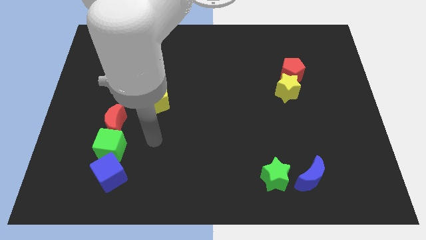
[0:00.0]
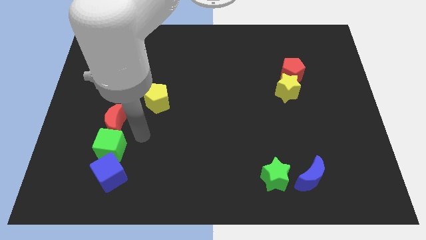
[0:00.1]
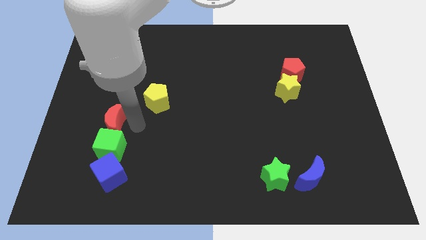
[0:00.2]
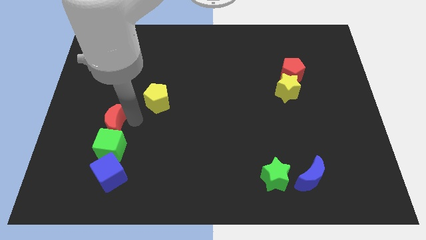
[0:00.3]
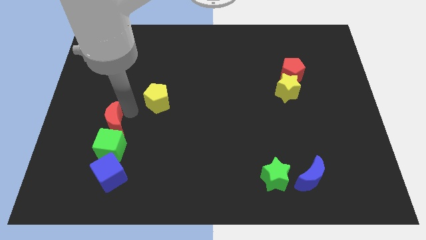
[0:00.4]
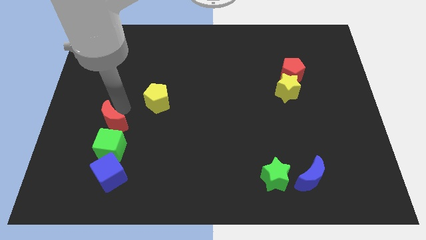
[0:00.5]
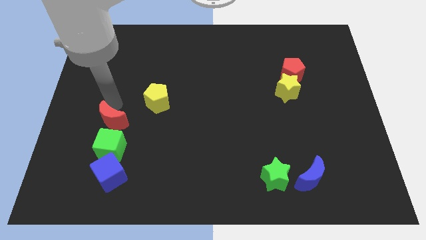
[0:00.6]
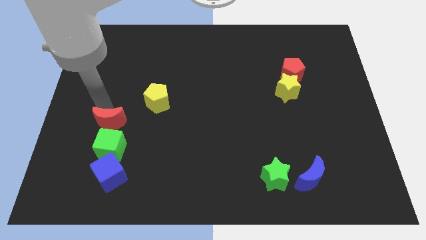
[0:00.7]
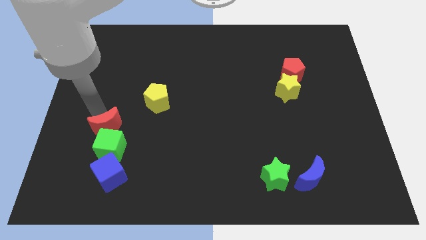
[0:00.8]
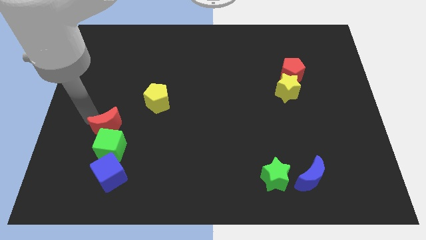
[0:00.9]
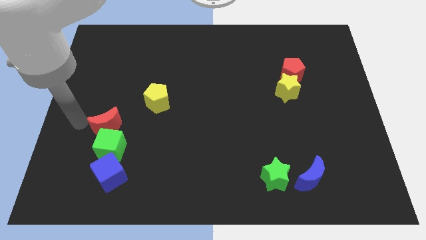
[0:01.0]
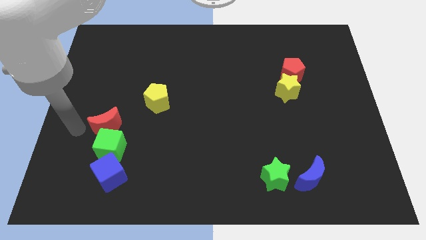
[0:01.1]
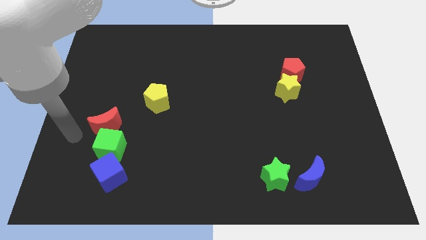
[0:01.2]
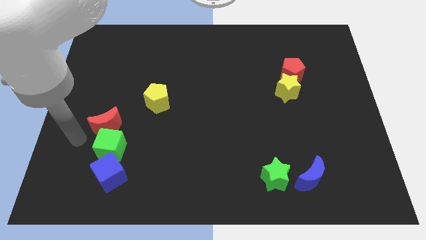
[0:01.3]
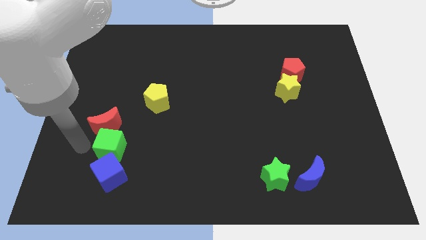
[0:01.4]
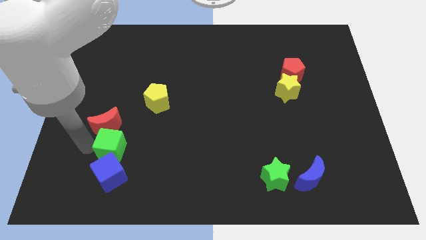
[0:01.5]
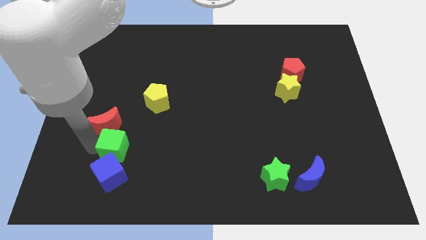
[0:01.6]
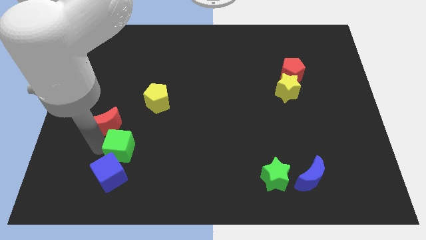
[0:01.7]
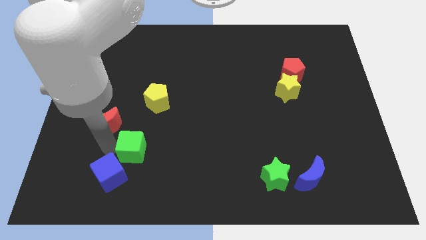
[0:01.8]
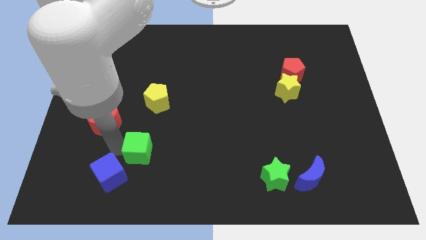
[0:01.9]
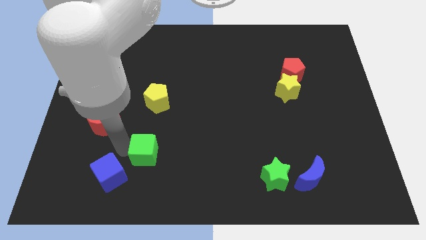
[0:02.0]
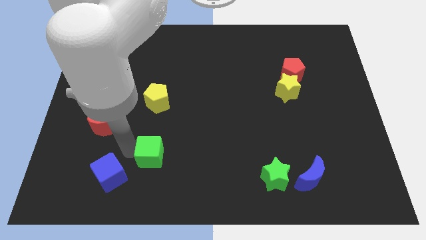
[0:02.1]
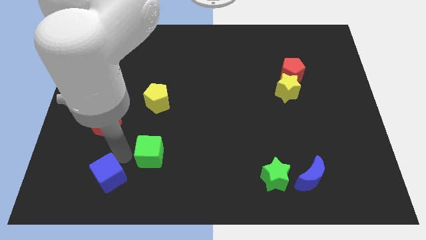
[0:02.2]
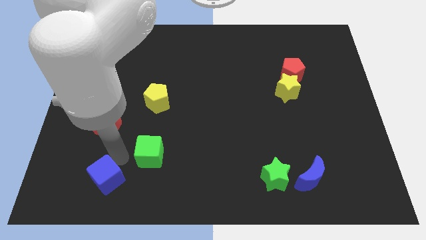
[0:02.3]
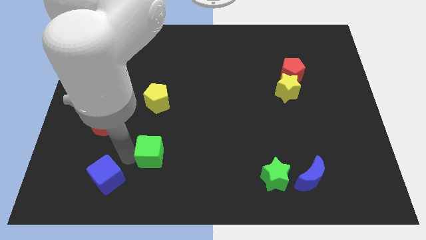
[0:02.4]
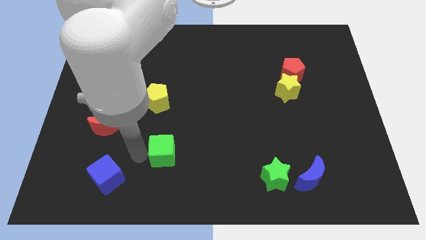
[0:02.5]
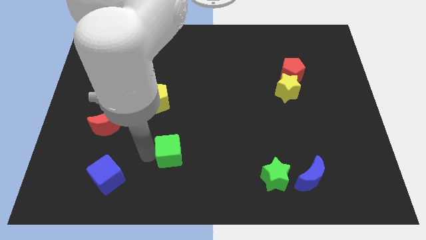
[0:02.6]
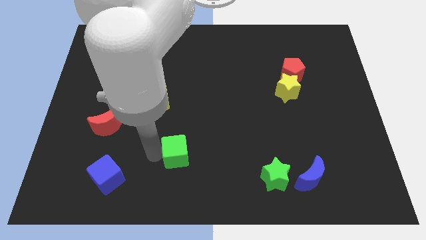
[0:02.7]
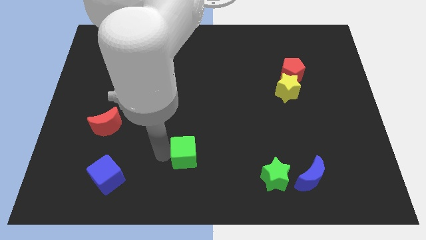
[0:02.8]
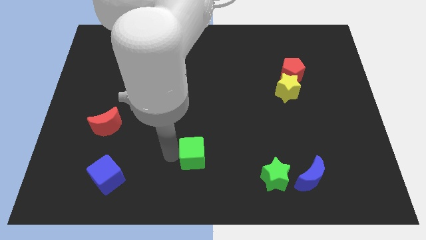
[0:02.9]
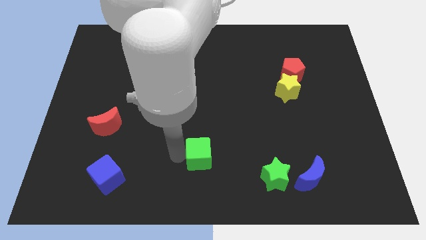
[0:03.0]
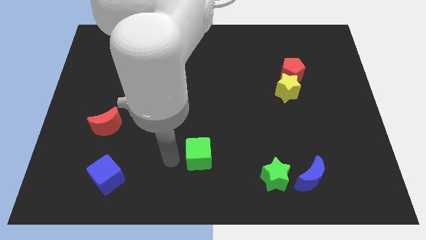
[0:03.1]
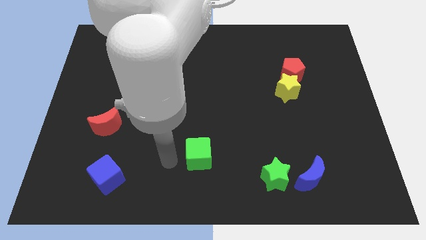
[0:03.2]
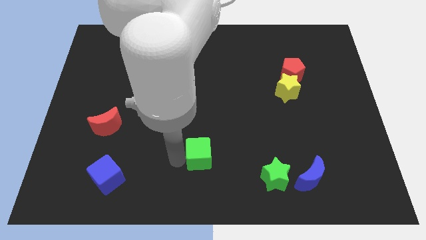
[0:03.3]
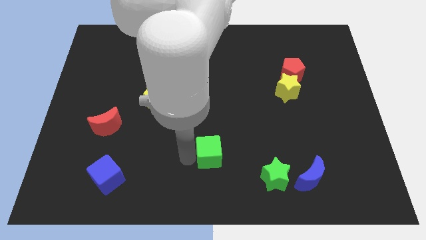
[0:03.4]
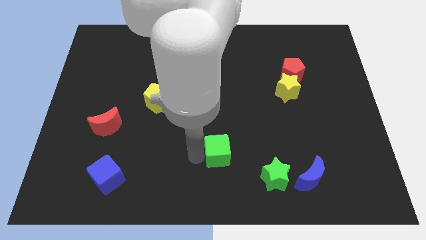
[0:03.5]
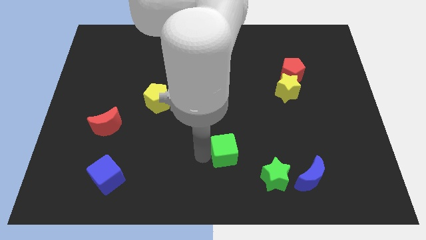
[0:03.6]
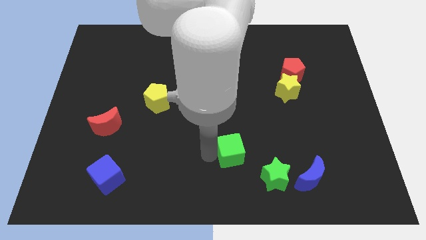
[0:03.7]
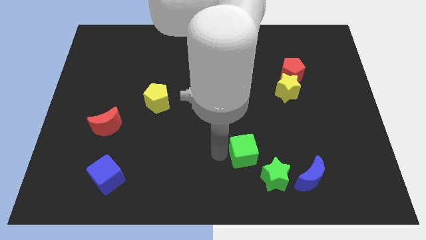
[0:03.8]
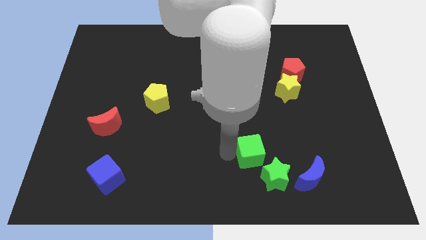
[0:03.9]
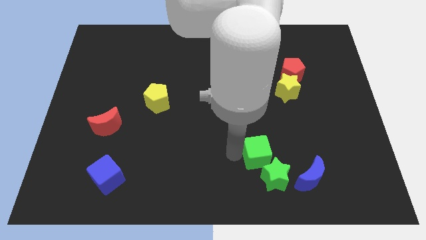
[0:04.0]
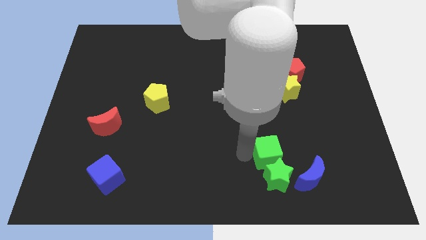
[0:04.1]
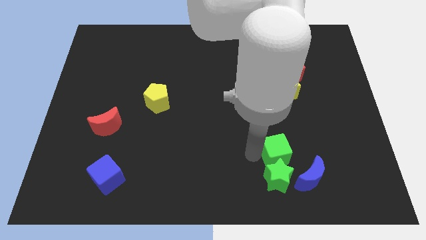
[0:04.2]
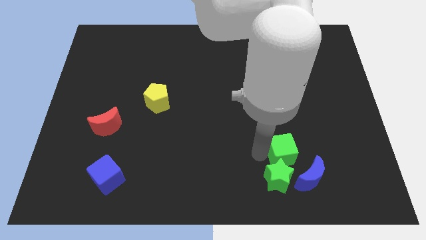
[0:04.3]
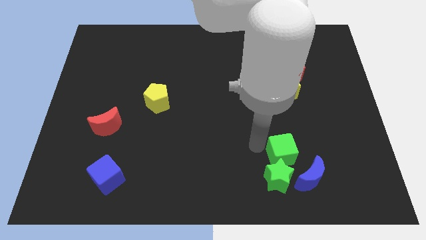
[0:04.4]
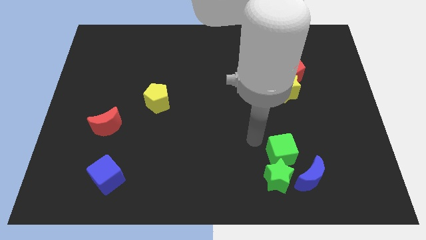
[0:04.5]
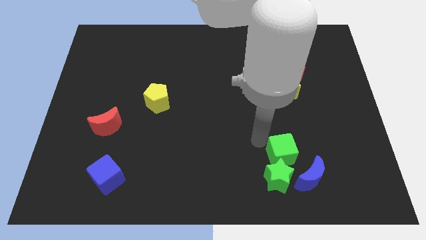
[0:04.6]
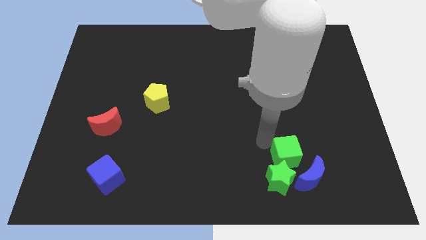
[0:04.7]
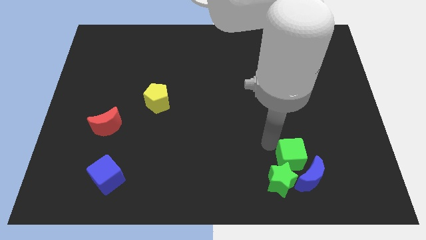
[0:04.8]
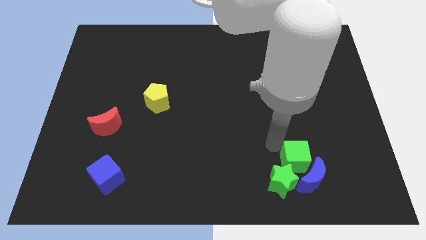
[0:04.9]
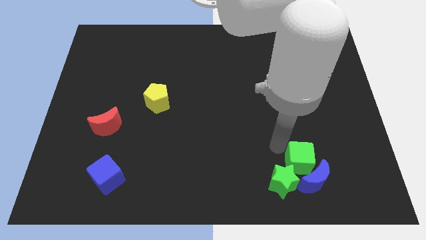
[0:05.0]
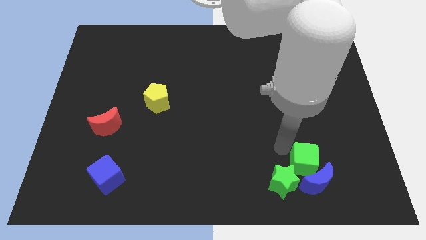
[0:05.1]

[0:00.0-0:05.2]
move the green cube just right of the green star

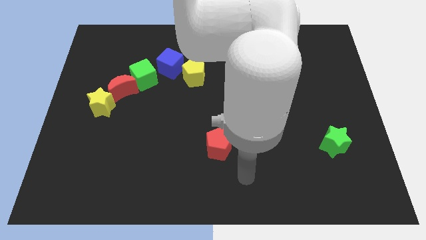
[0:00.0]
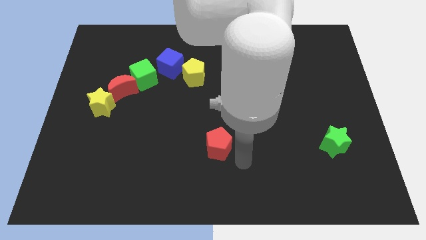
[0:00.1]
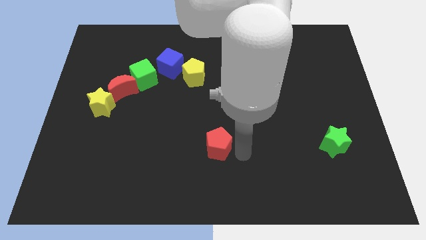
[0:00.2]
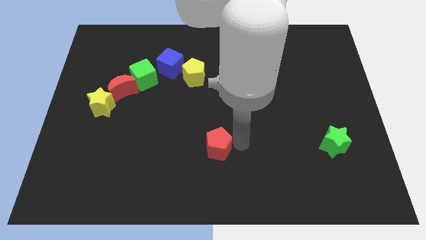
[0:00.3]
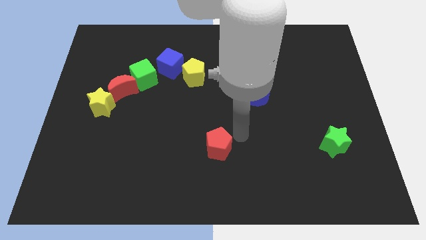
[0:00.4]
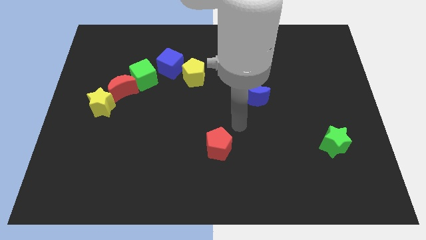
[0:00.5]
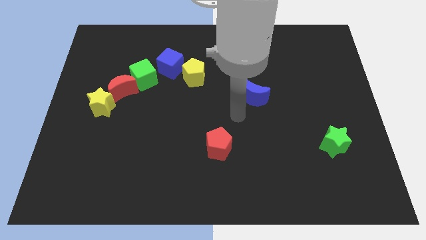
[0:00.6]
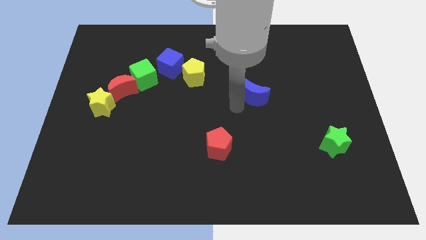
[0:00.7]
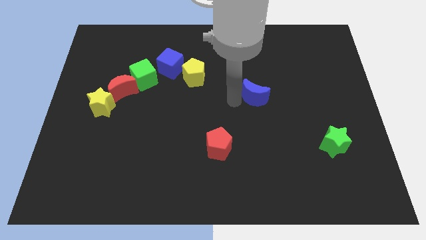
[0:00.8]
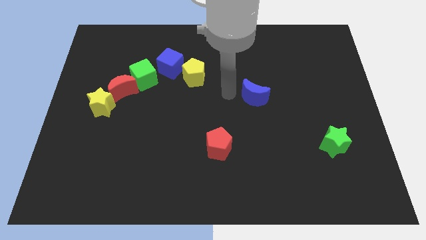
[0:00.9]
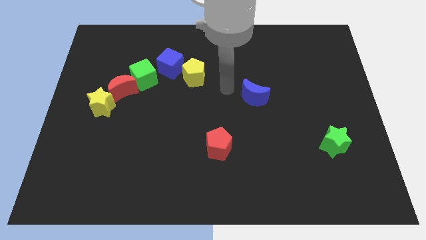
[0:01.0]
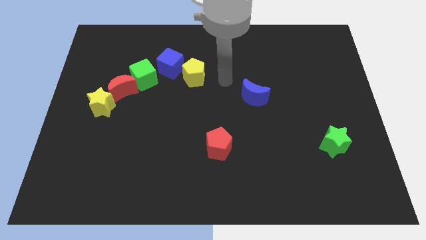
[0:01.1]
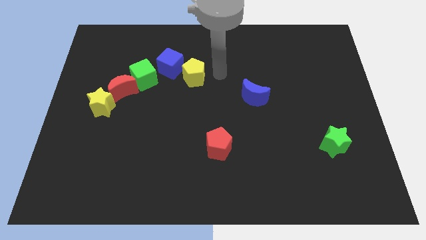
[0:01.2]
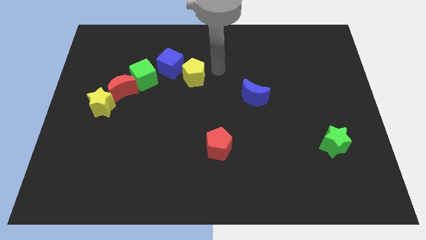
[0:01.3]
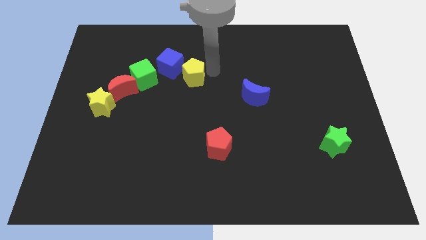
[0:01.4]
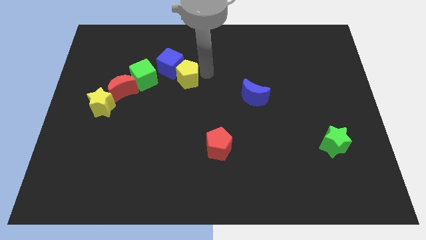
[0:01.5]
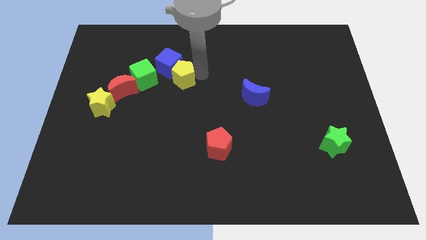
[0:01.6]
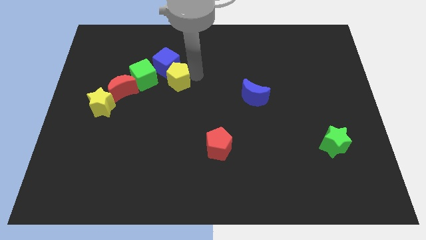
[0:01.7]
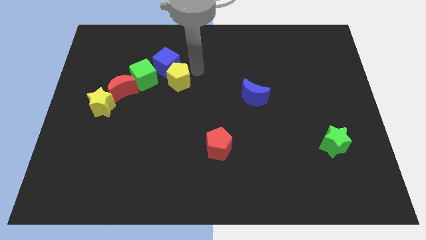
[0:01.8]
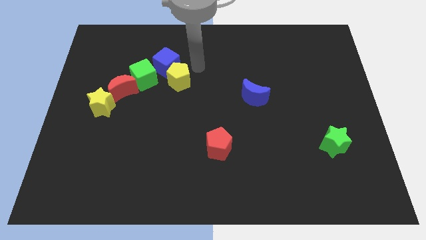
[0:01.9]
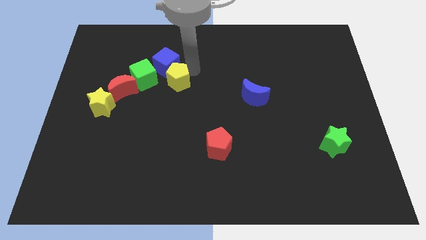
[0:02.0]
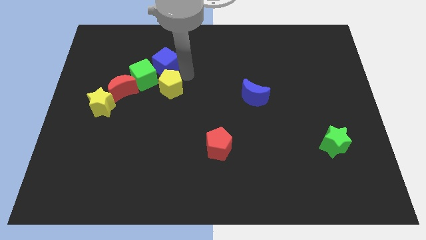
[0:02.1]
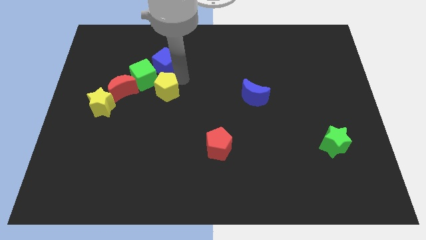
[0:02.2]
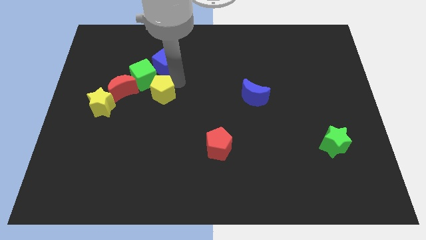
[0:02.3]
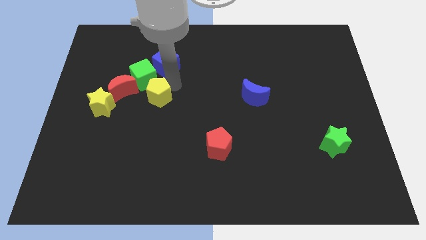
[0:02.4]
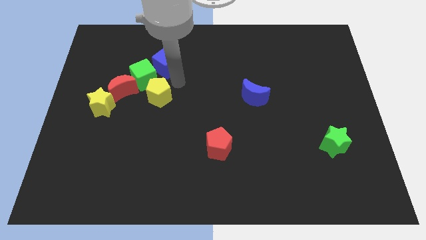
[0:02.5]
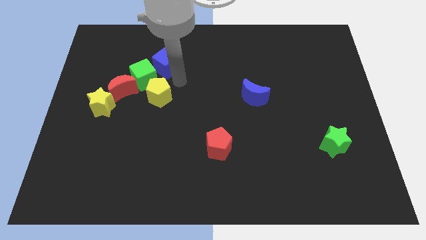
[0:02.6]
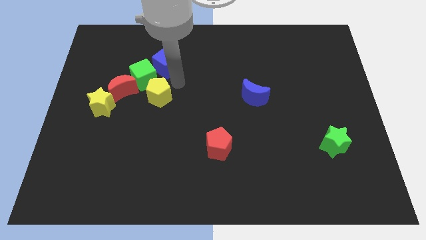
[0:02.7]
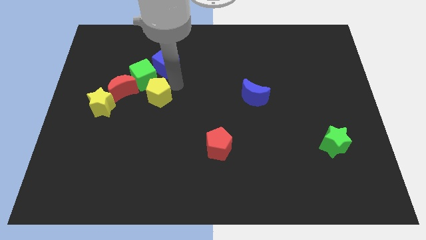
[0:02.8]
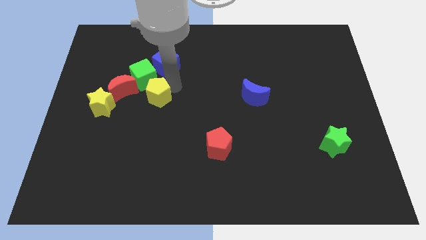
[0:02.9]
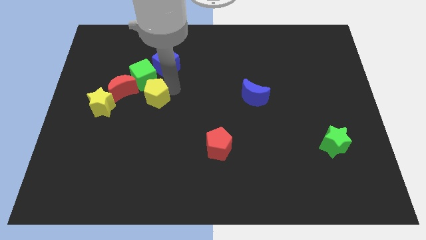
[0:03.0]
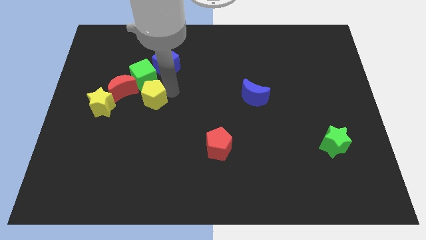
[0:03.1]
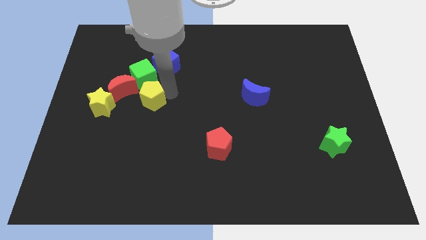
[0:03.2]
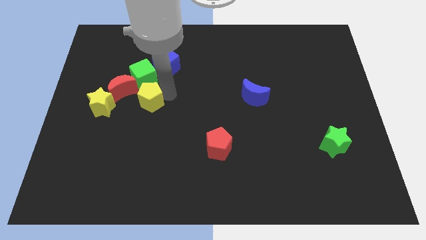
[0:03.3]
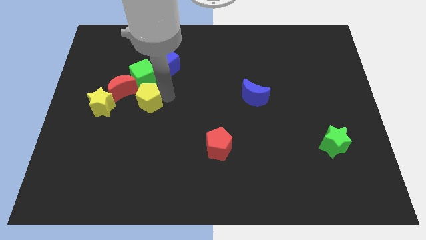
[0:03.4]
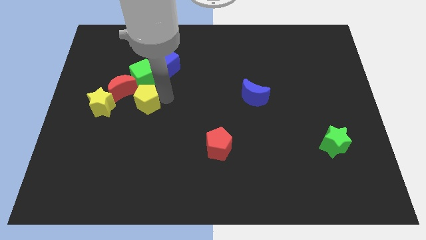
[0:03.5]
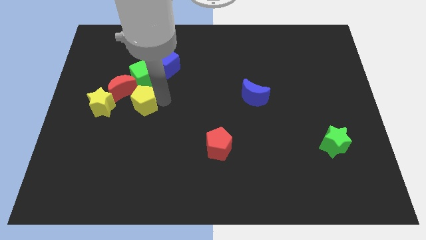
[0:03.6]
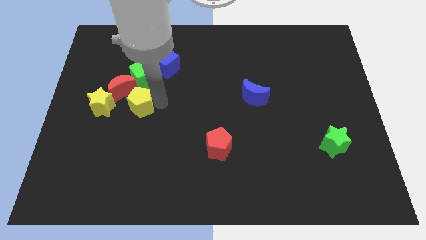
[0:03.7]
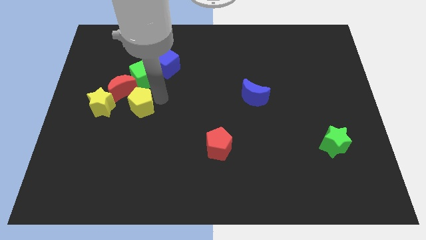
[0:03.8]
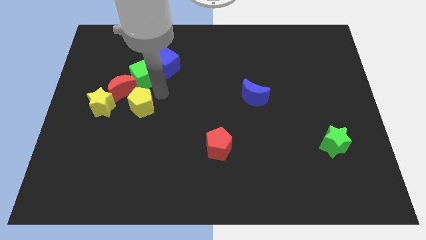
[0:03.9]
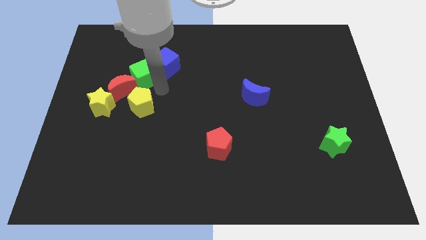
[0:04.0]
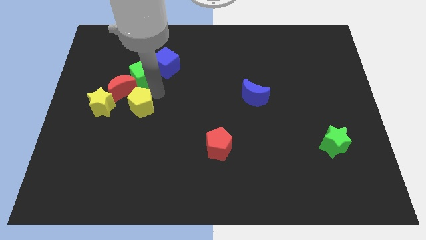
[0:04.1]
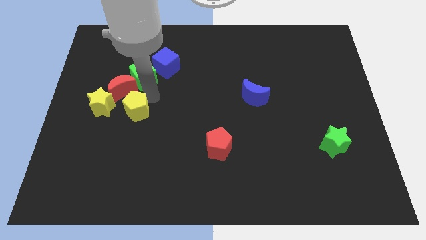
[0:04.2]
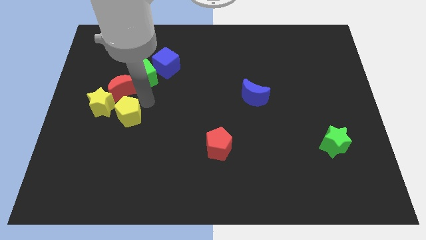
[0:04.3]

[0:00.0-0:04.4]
put the yellow pentagon to the bottom right of the yellow star
